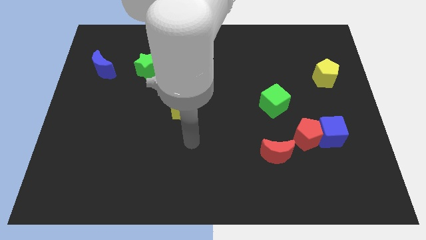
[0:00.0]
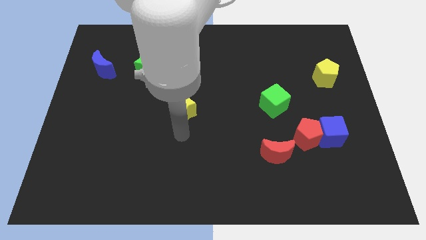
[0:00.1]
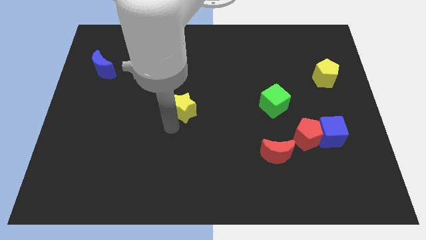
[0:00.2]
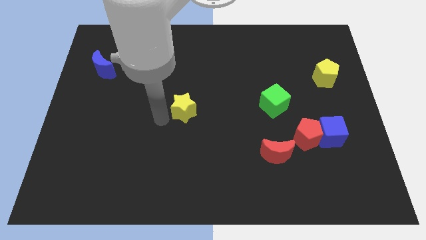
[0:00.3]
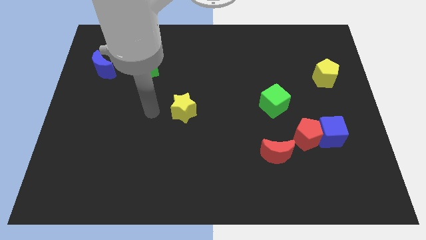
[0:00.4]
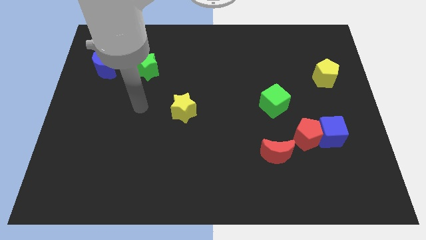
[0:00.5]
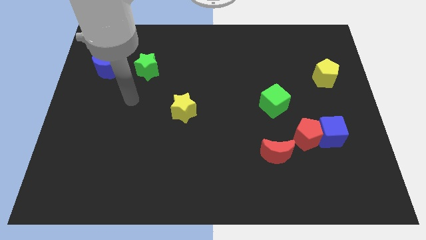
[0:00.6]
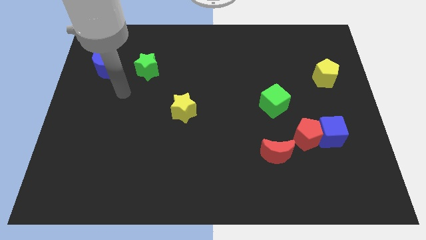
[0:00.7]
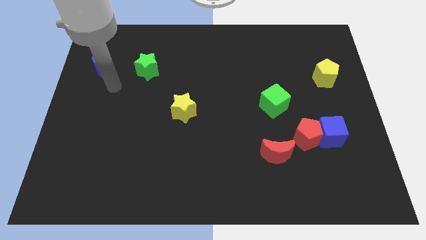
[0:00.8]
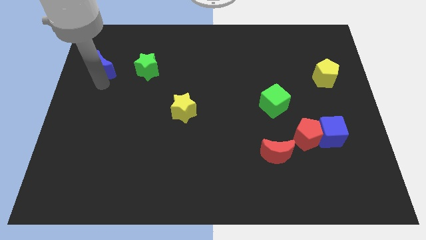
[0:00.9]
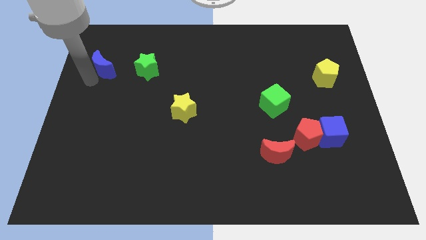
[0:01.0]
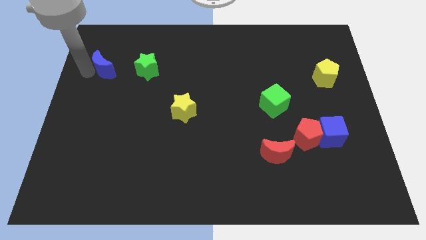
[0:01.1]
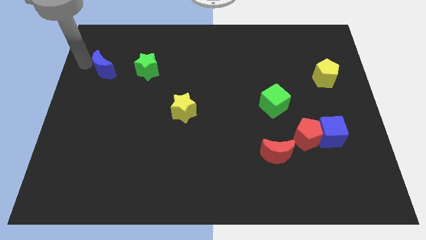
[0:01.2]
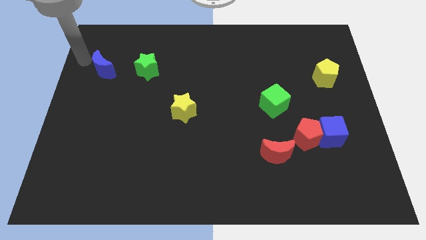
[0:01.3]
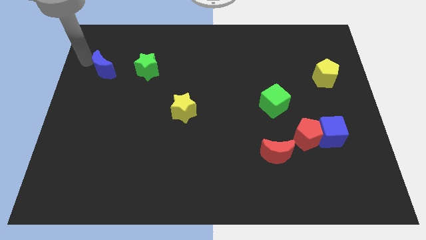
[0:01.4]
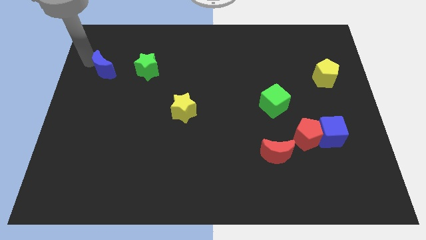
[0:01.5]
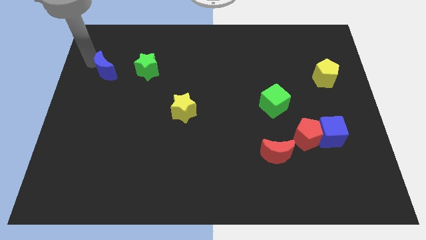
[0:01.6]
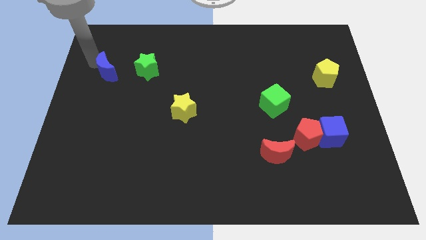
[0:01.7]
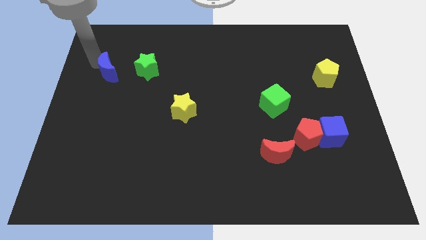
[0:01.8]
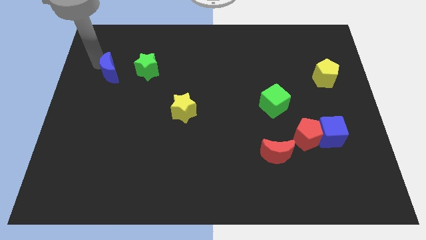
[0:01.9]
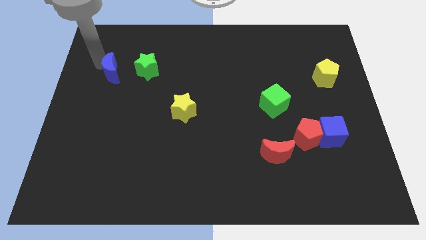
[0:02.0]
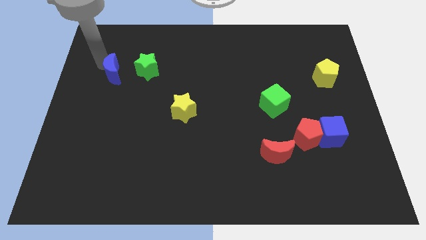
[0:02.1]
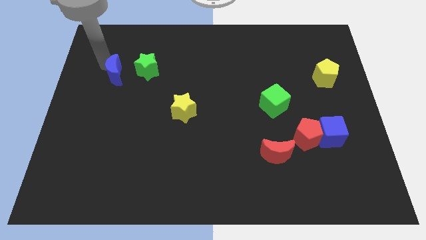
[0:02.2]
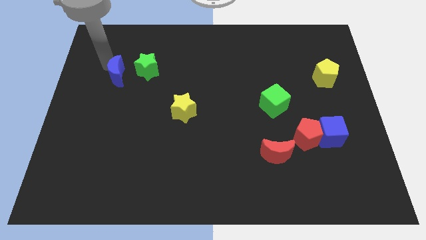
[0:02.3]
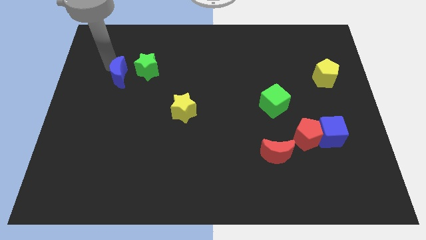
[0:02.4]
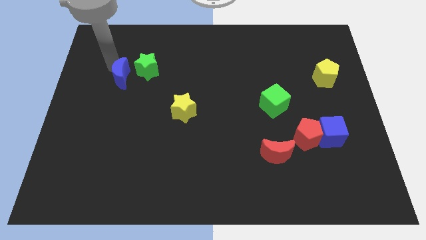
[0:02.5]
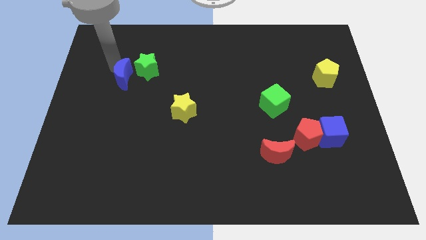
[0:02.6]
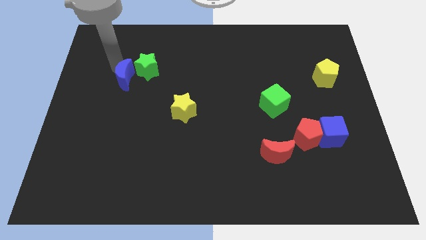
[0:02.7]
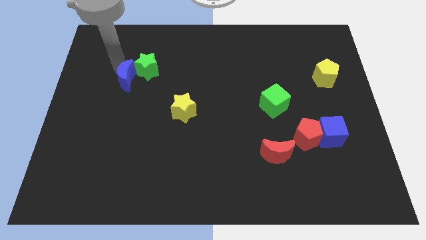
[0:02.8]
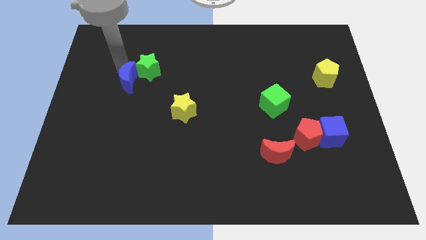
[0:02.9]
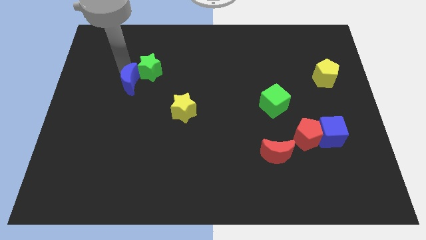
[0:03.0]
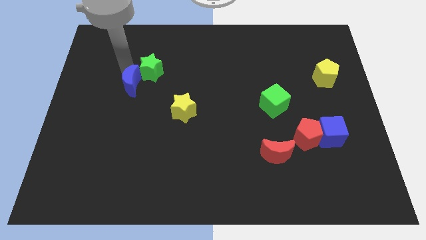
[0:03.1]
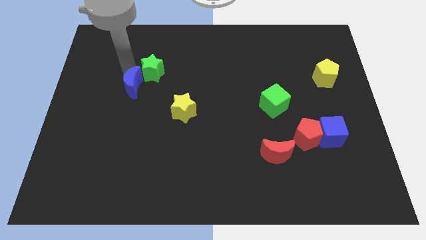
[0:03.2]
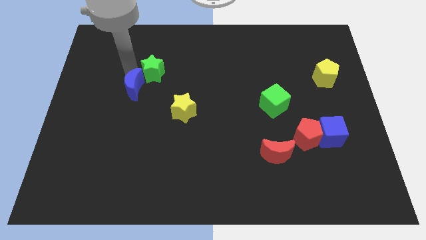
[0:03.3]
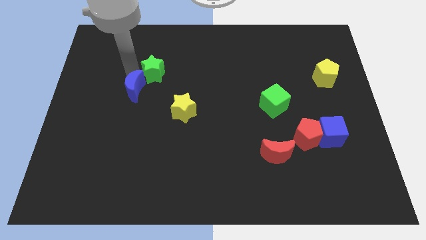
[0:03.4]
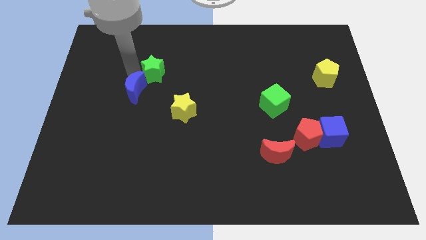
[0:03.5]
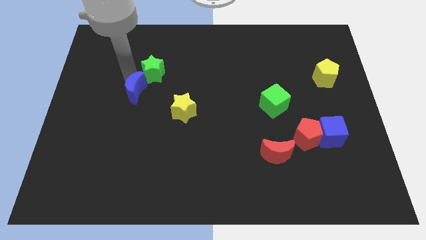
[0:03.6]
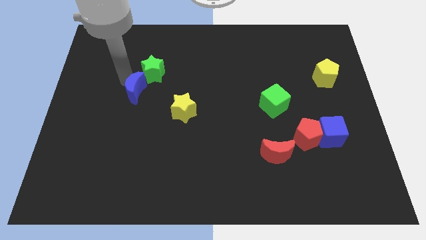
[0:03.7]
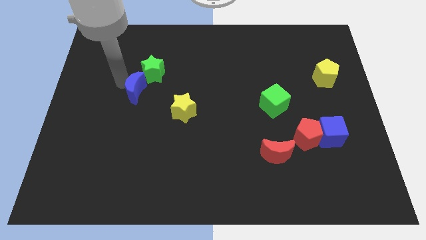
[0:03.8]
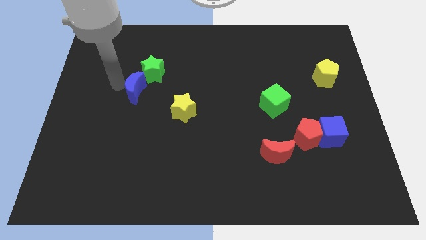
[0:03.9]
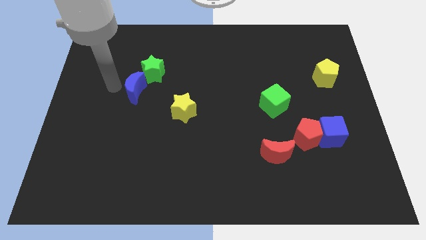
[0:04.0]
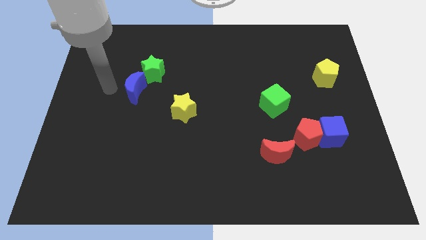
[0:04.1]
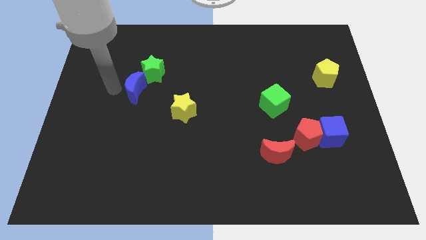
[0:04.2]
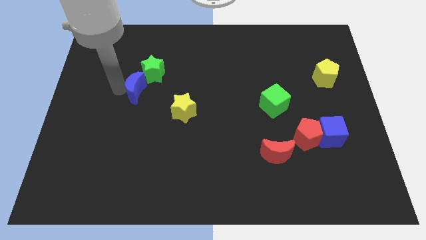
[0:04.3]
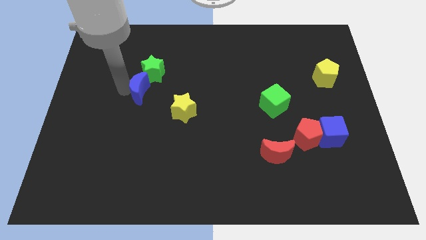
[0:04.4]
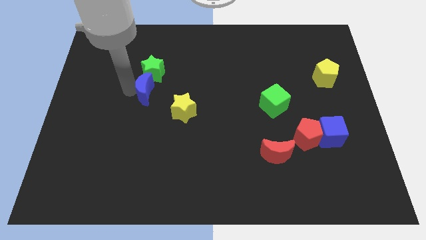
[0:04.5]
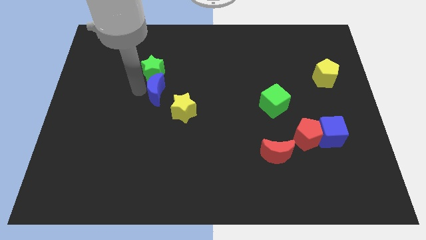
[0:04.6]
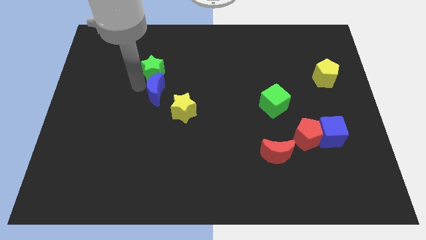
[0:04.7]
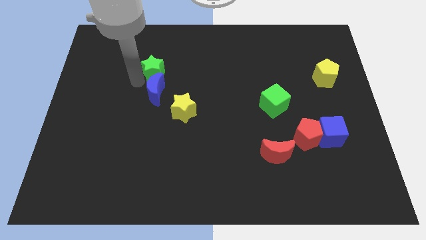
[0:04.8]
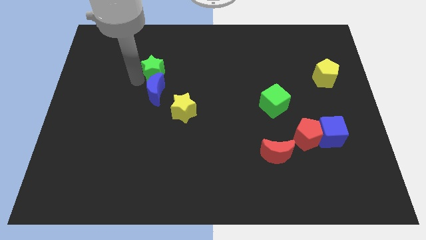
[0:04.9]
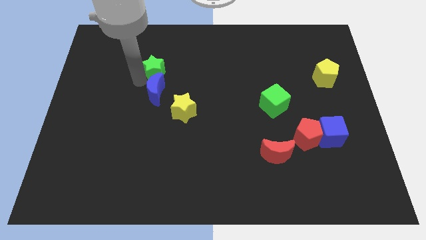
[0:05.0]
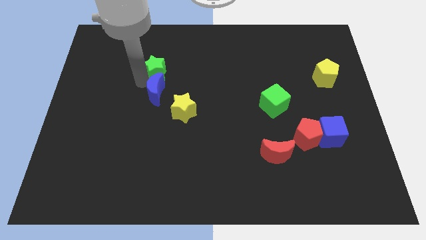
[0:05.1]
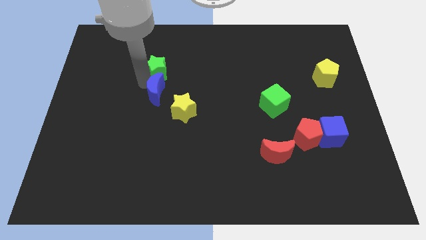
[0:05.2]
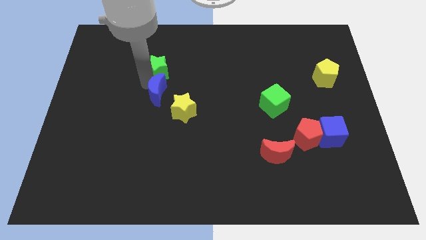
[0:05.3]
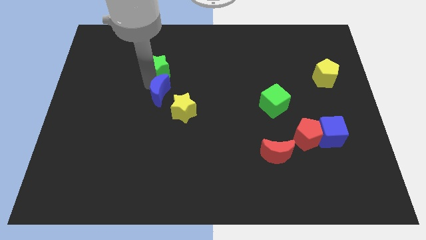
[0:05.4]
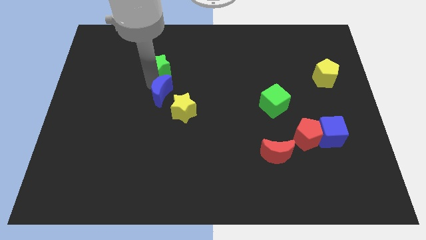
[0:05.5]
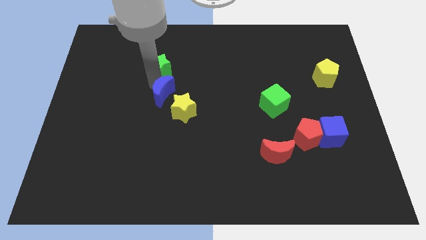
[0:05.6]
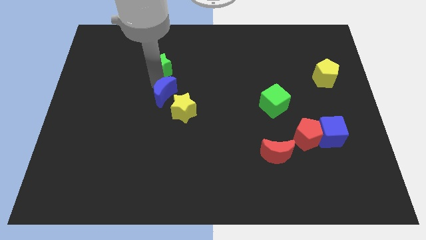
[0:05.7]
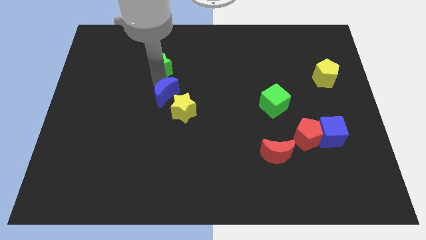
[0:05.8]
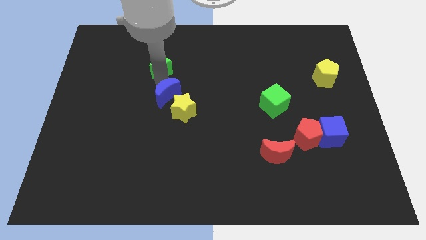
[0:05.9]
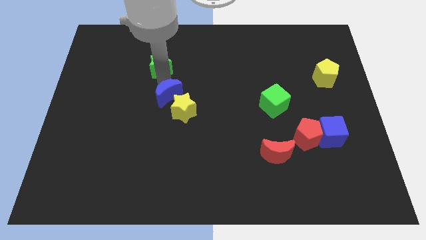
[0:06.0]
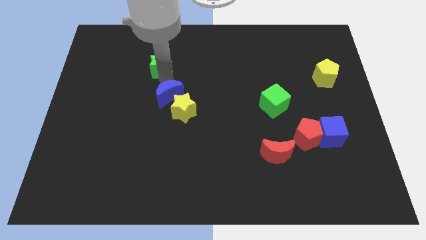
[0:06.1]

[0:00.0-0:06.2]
push the blue moon close to the yellow star
